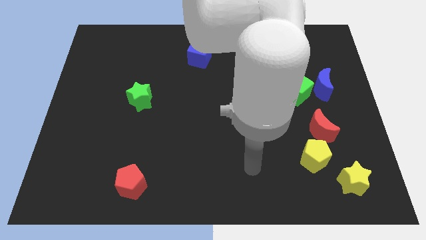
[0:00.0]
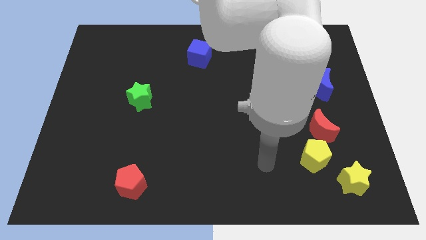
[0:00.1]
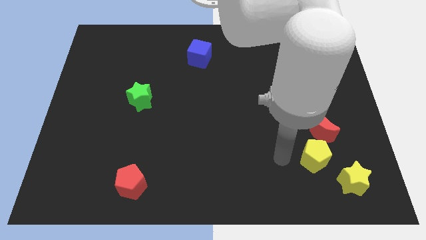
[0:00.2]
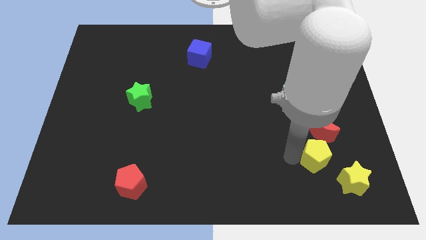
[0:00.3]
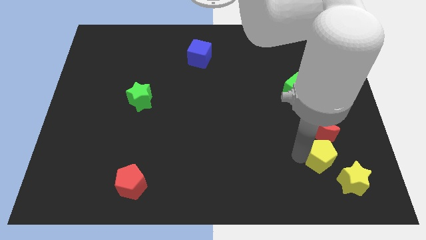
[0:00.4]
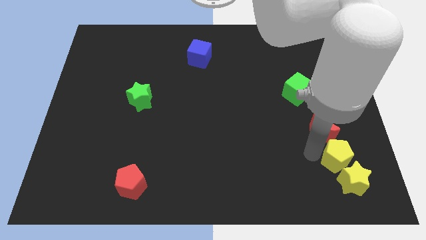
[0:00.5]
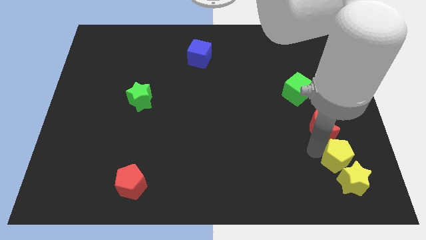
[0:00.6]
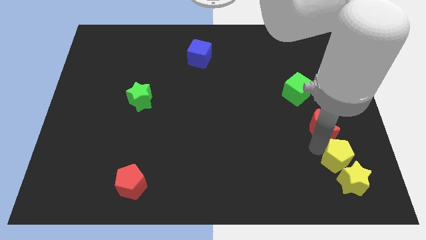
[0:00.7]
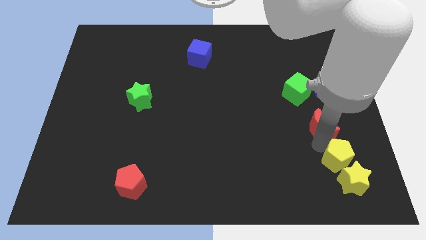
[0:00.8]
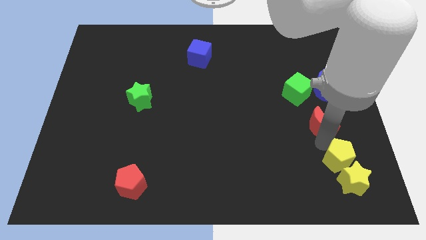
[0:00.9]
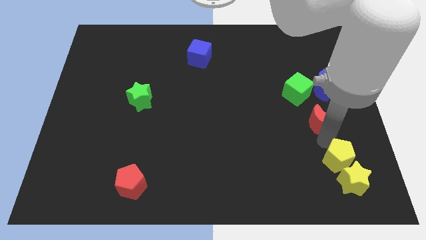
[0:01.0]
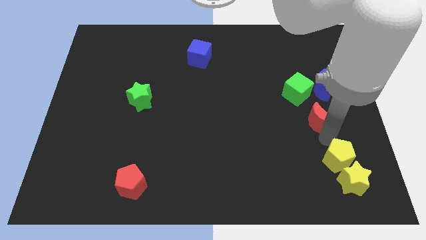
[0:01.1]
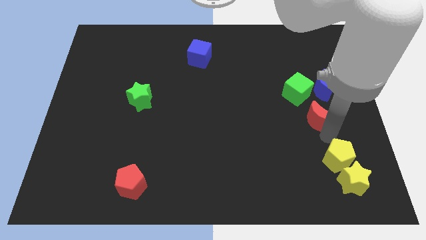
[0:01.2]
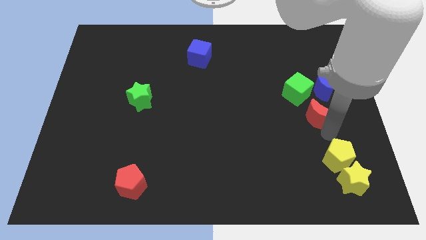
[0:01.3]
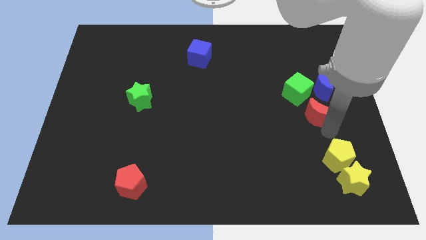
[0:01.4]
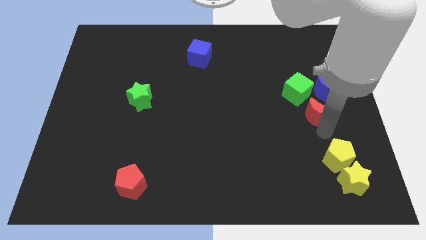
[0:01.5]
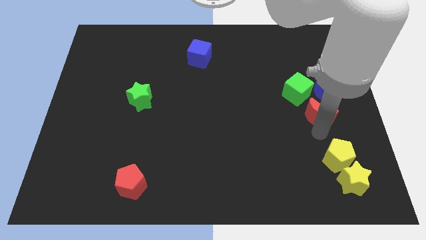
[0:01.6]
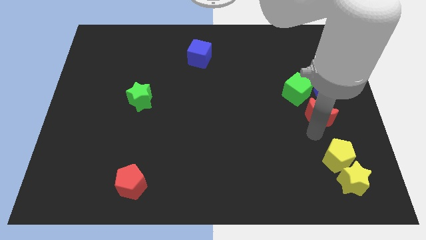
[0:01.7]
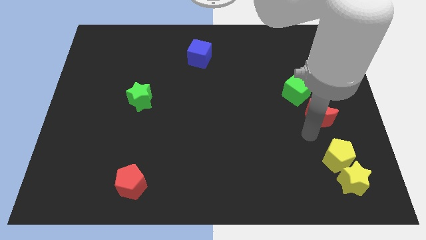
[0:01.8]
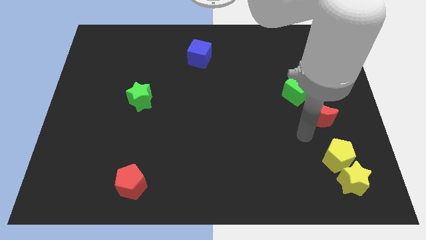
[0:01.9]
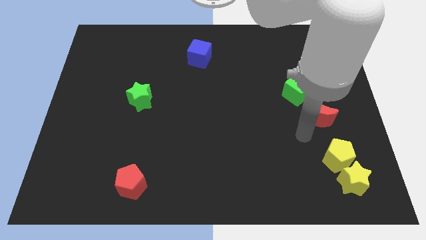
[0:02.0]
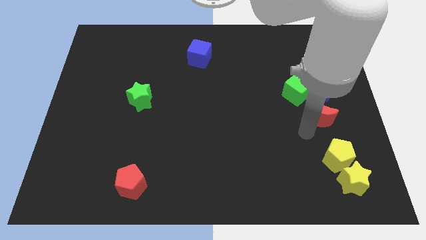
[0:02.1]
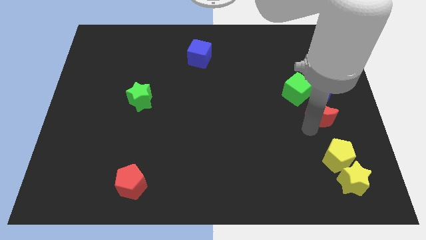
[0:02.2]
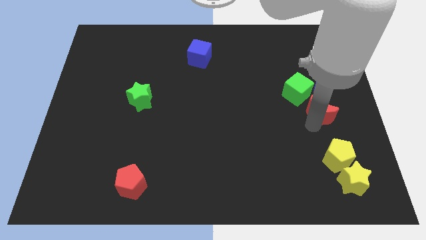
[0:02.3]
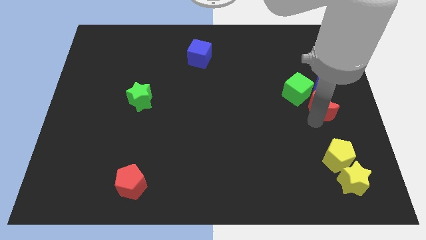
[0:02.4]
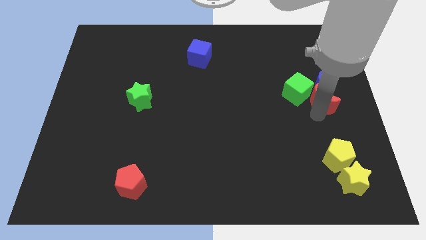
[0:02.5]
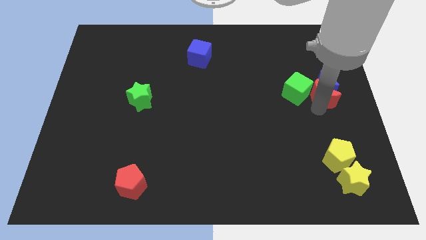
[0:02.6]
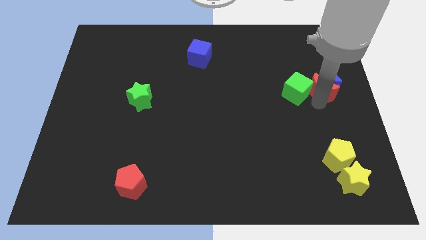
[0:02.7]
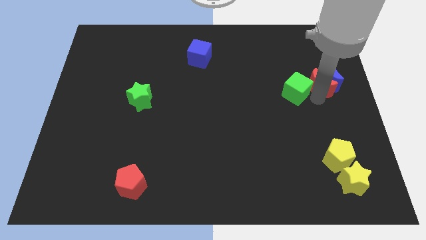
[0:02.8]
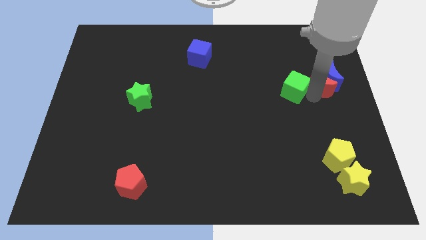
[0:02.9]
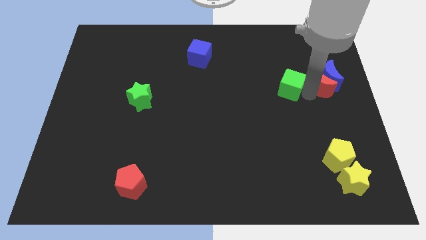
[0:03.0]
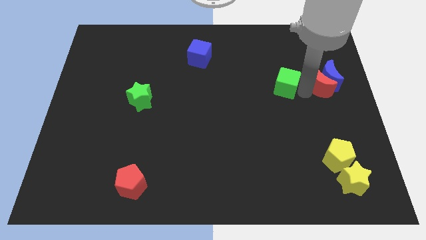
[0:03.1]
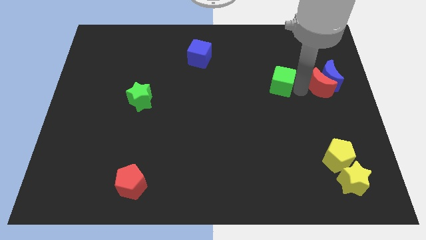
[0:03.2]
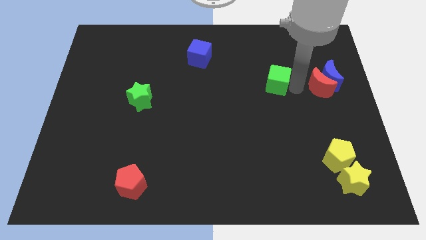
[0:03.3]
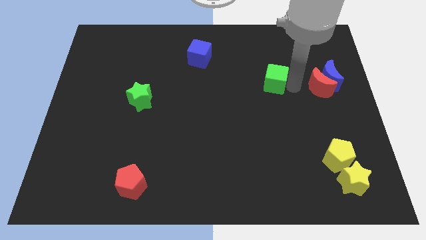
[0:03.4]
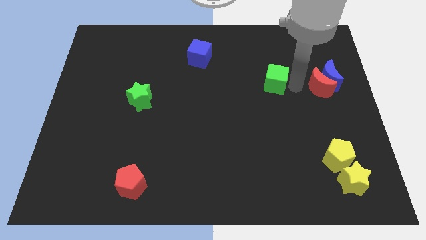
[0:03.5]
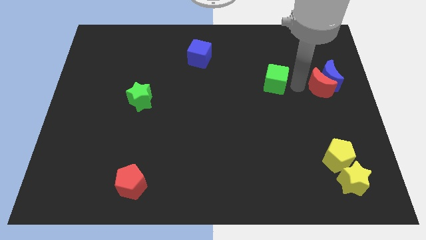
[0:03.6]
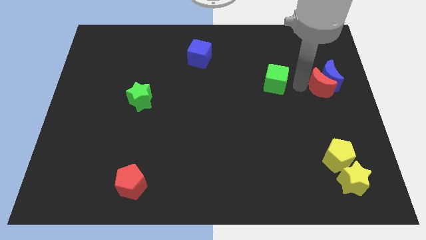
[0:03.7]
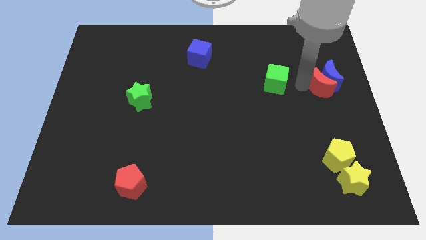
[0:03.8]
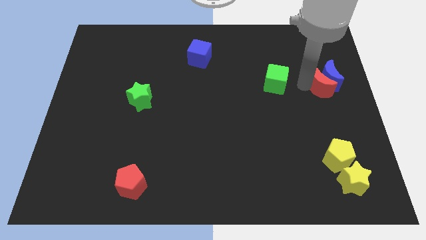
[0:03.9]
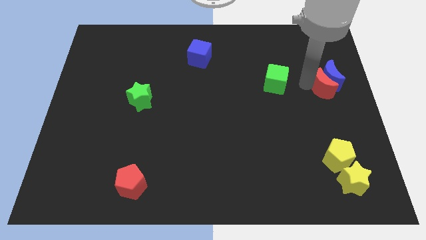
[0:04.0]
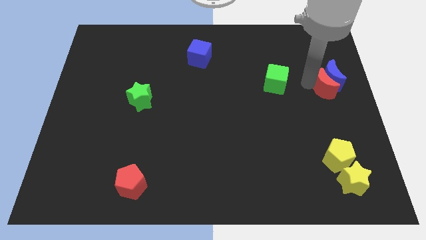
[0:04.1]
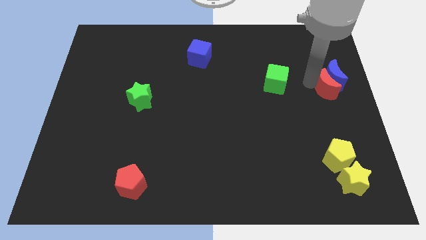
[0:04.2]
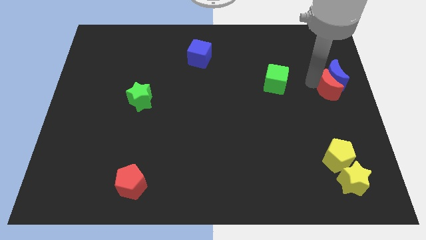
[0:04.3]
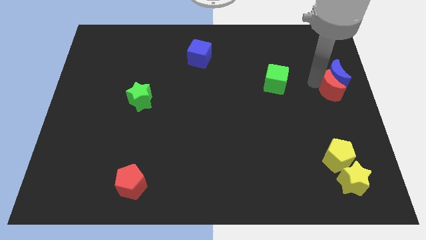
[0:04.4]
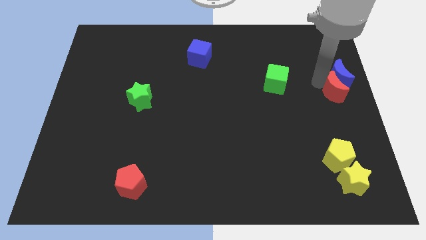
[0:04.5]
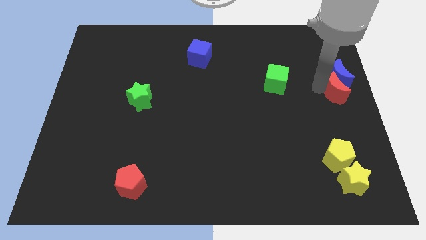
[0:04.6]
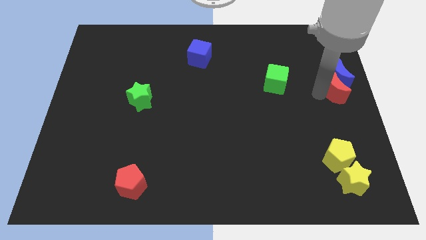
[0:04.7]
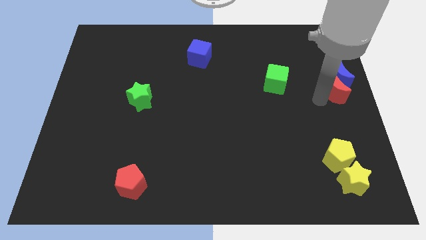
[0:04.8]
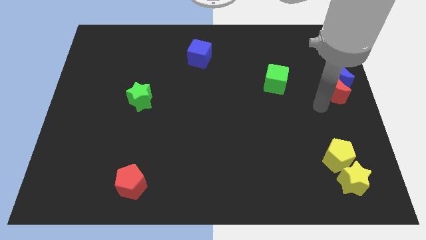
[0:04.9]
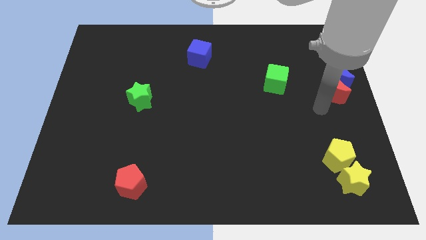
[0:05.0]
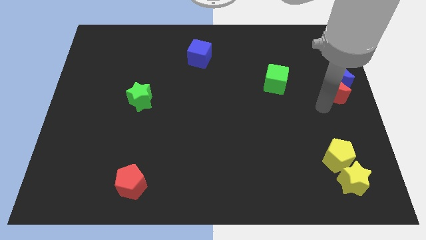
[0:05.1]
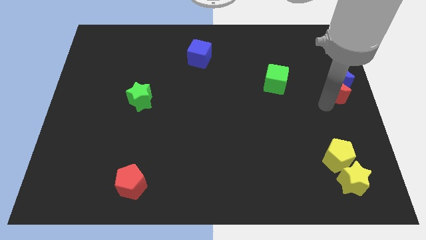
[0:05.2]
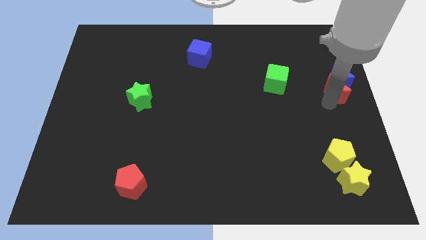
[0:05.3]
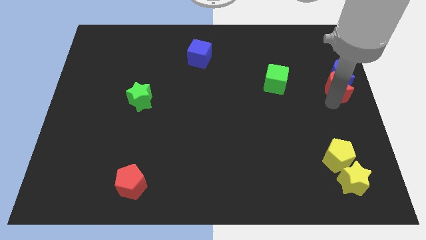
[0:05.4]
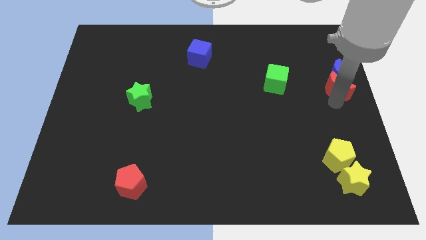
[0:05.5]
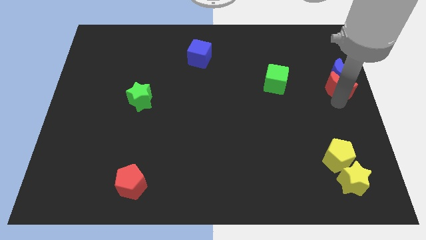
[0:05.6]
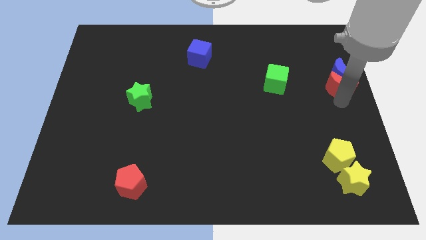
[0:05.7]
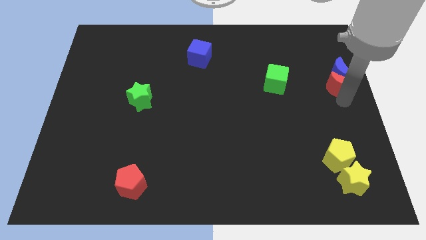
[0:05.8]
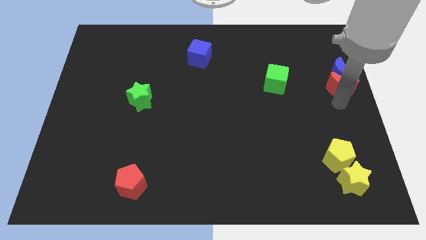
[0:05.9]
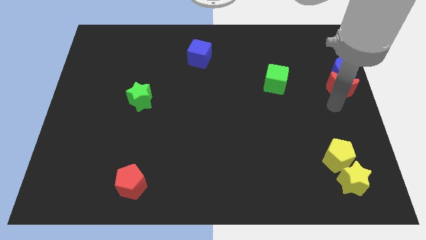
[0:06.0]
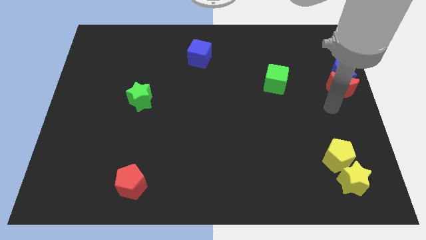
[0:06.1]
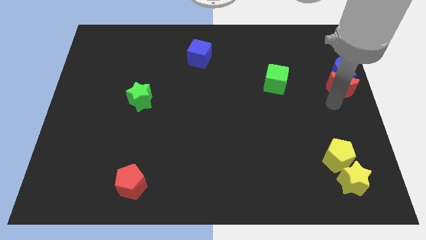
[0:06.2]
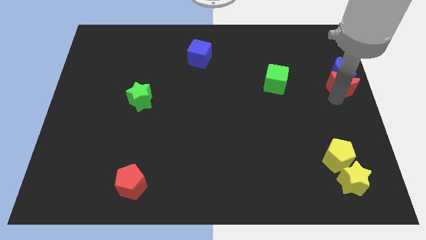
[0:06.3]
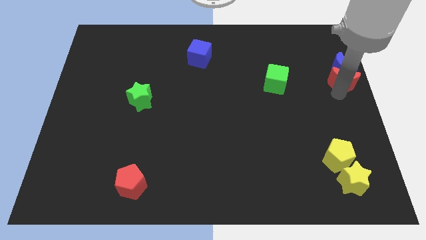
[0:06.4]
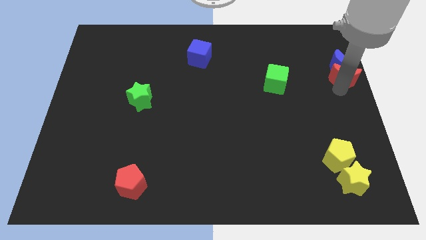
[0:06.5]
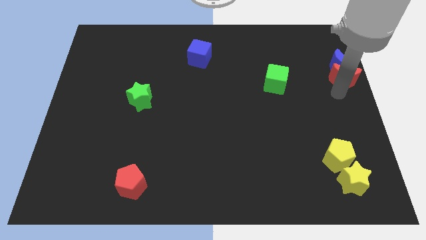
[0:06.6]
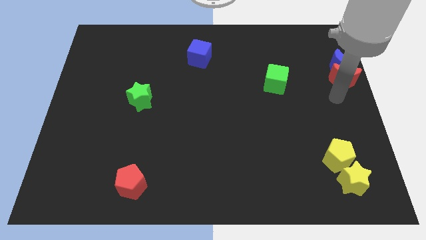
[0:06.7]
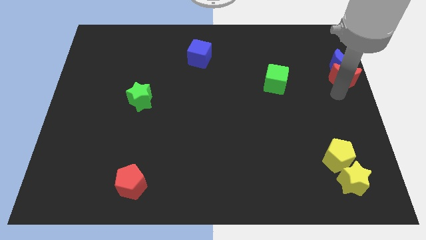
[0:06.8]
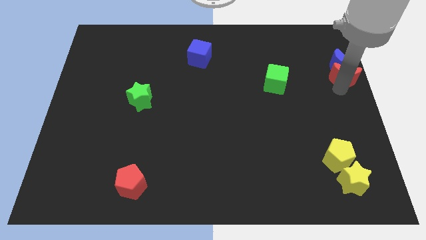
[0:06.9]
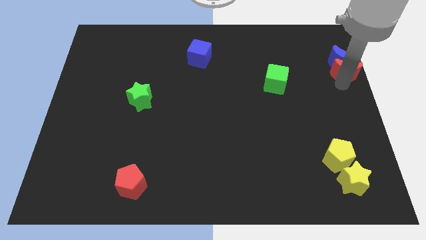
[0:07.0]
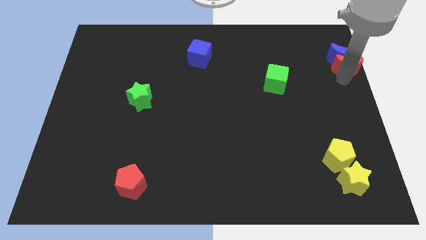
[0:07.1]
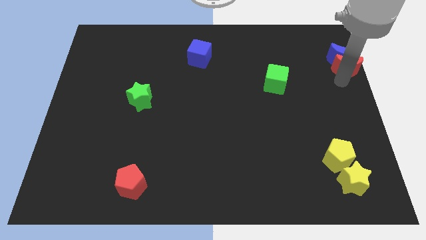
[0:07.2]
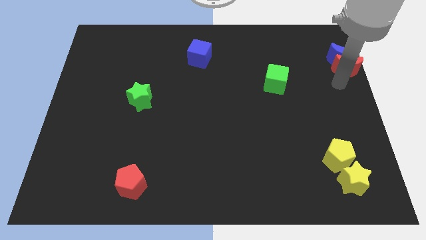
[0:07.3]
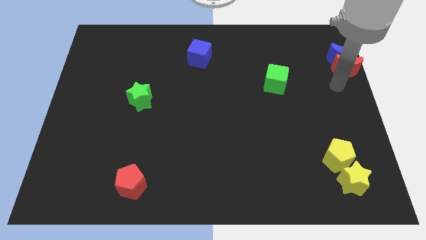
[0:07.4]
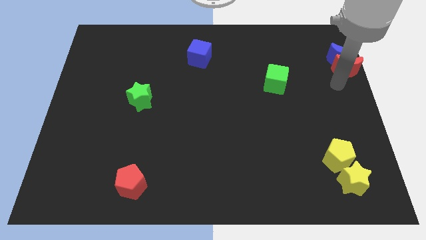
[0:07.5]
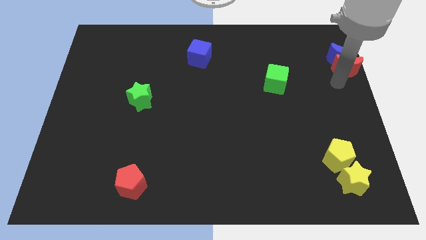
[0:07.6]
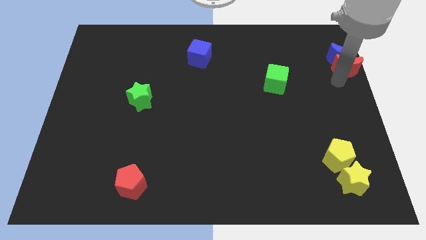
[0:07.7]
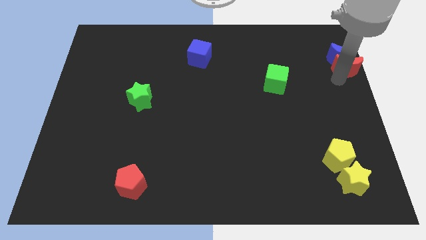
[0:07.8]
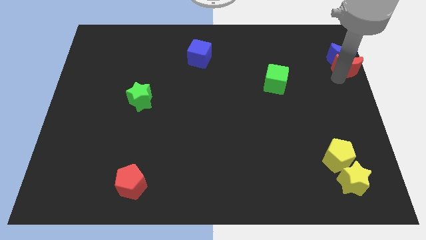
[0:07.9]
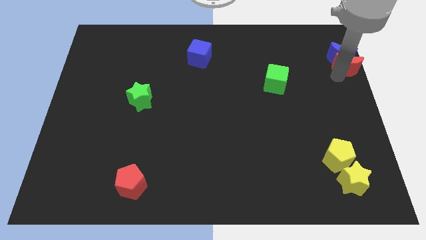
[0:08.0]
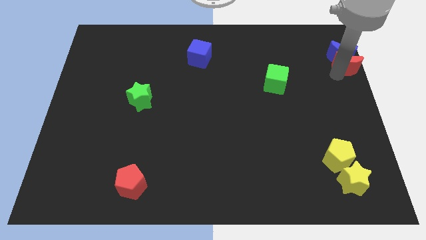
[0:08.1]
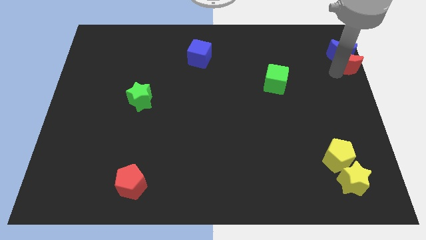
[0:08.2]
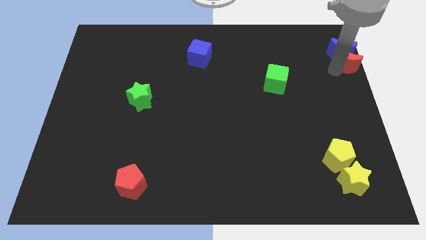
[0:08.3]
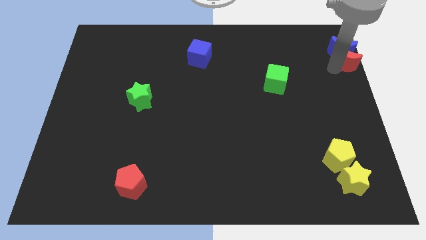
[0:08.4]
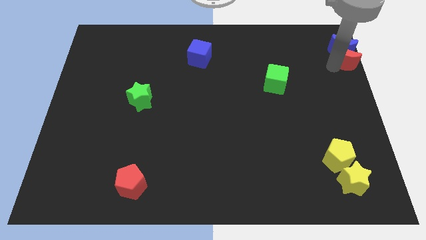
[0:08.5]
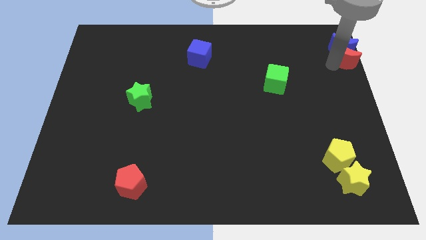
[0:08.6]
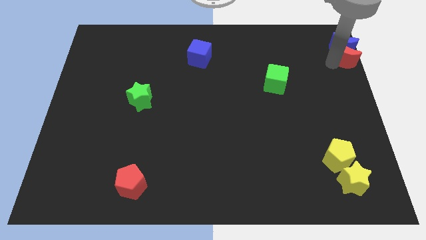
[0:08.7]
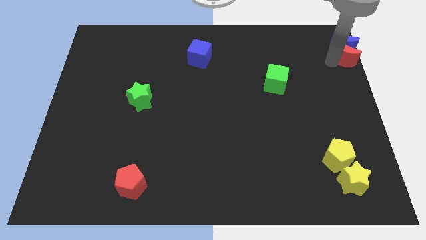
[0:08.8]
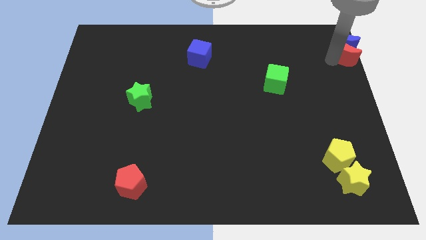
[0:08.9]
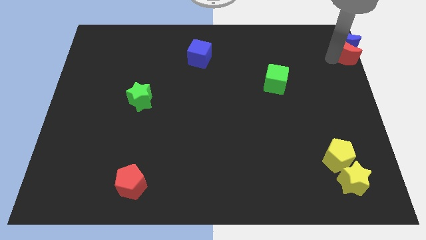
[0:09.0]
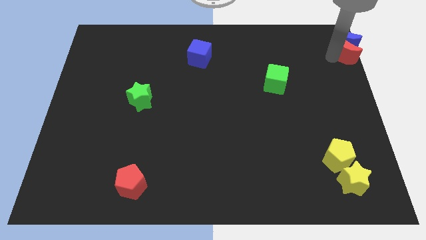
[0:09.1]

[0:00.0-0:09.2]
move the red moon to the top right
